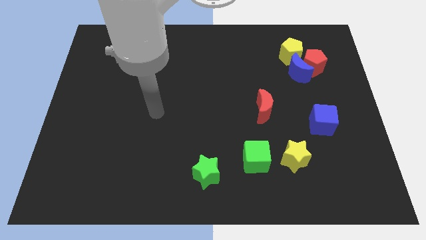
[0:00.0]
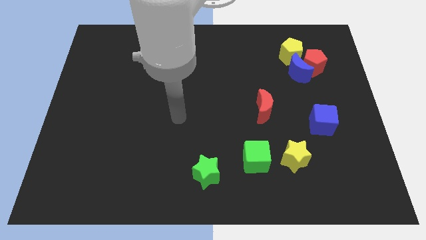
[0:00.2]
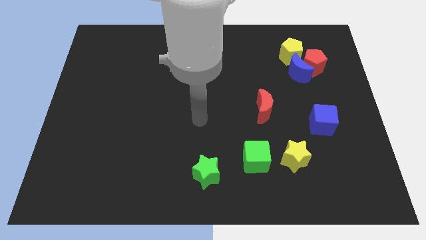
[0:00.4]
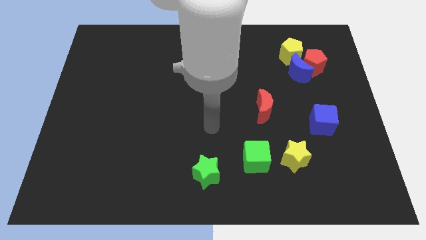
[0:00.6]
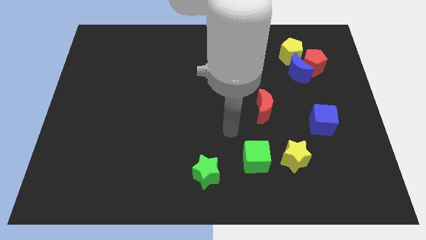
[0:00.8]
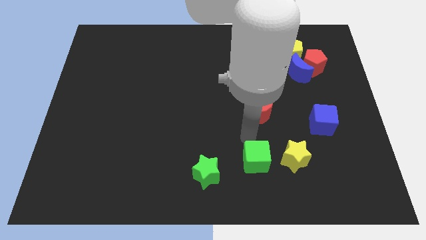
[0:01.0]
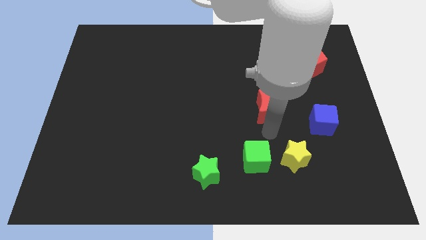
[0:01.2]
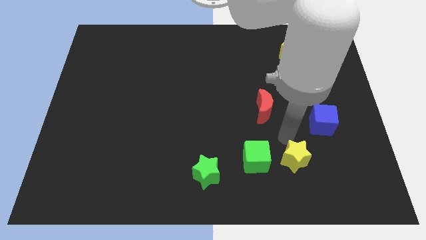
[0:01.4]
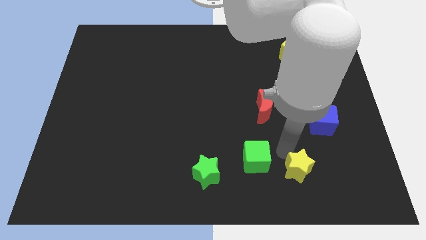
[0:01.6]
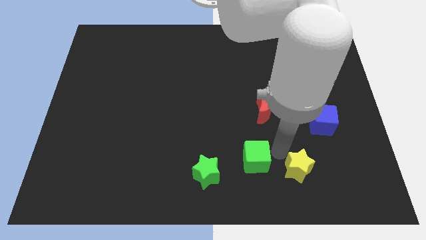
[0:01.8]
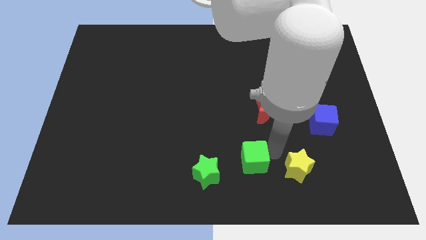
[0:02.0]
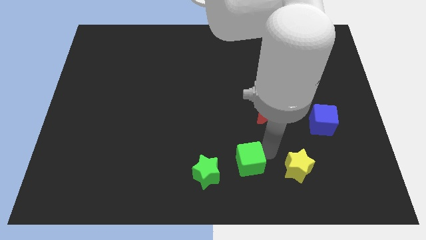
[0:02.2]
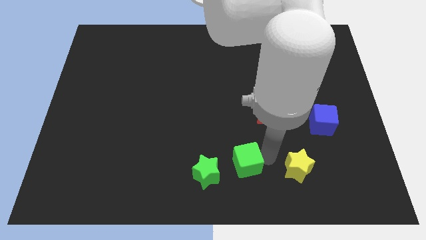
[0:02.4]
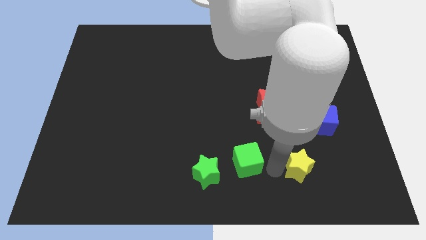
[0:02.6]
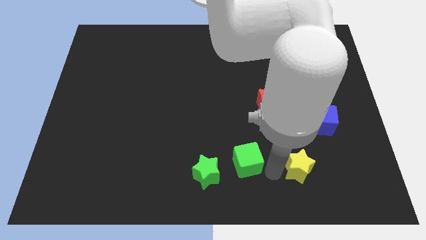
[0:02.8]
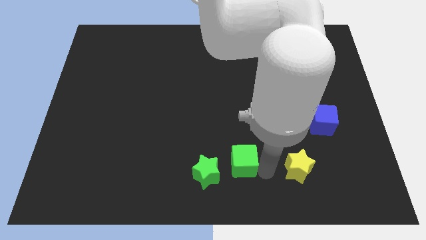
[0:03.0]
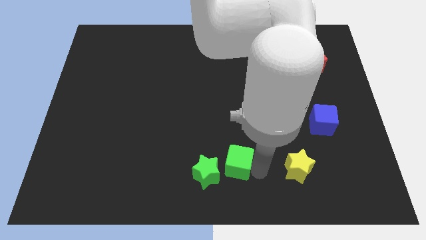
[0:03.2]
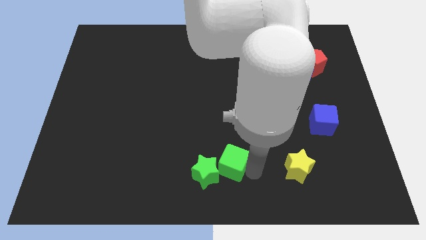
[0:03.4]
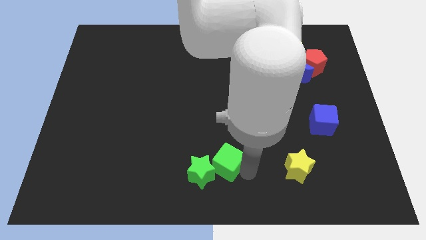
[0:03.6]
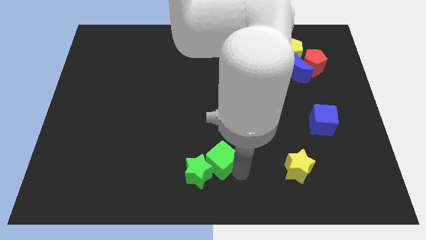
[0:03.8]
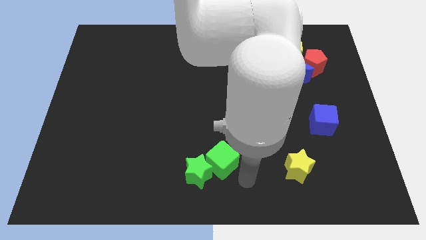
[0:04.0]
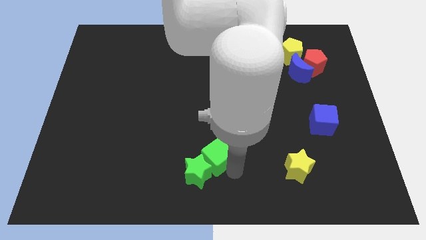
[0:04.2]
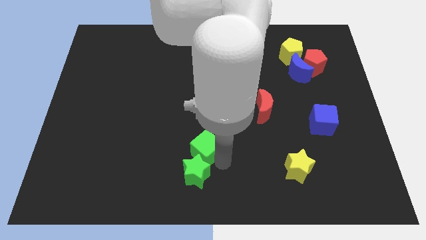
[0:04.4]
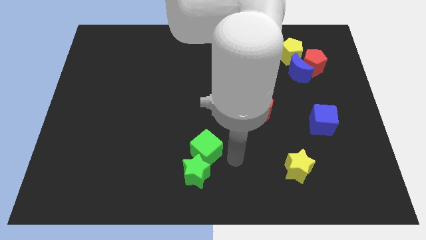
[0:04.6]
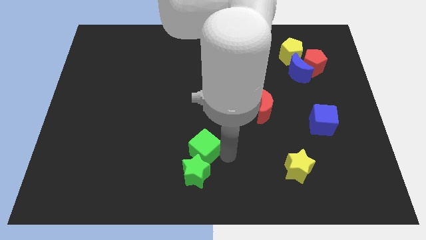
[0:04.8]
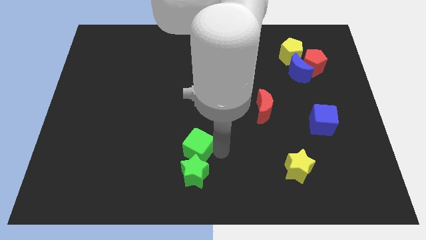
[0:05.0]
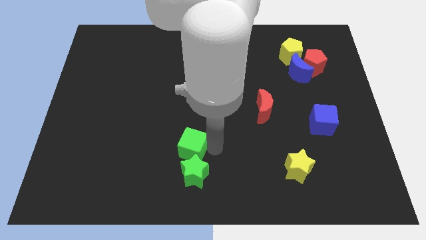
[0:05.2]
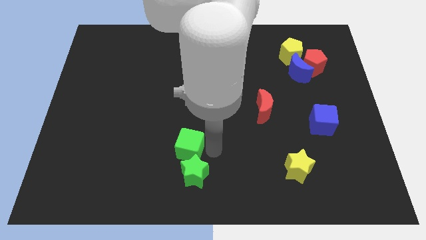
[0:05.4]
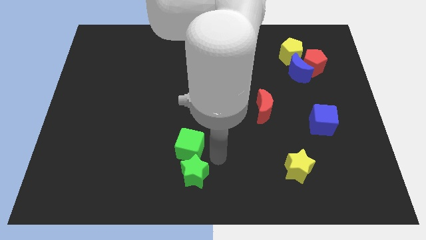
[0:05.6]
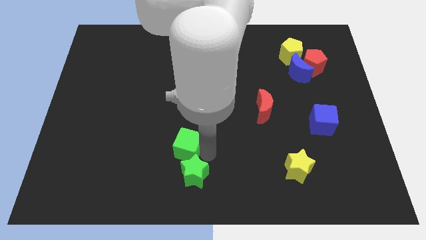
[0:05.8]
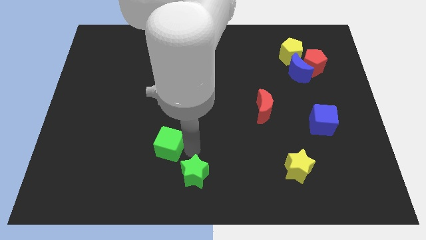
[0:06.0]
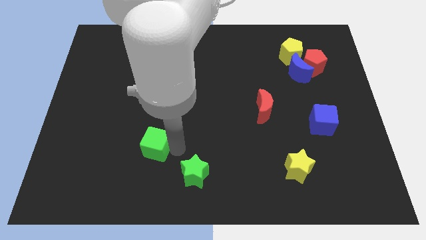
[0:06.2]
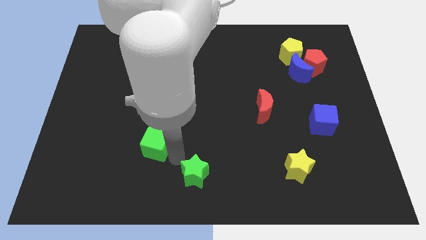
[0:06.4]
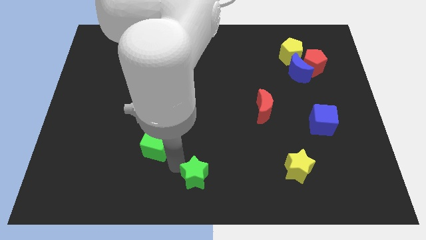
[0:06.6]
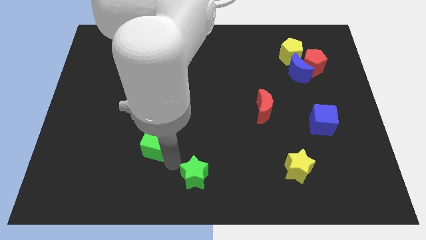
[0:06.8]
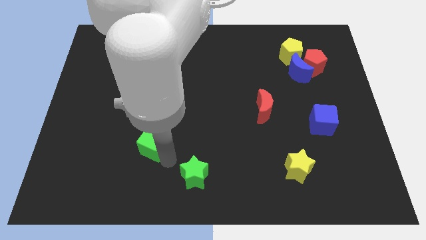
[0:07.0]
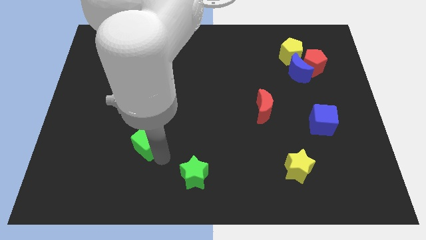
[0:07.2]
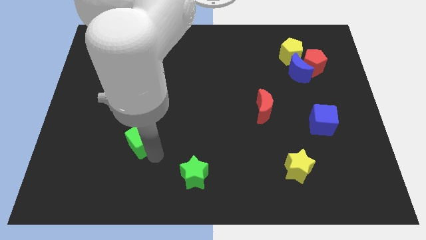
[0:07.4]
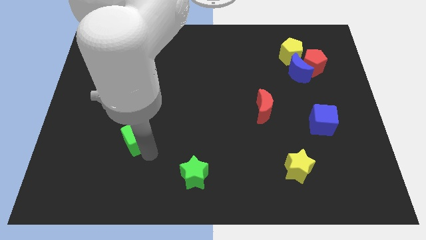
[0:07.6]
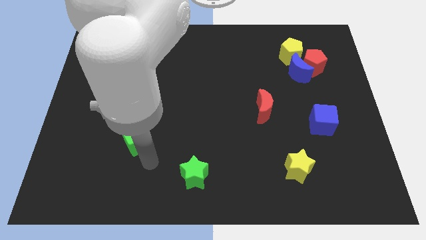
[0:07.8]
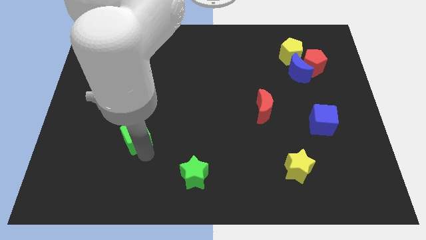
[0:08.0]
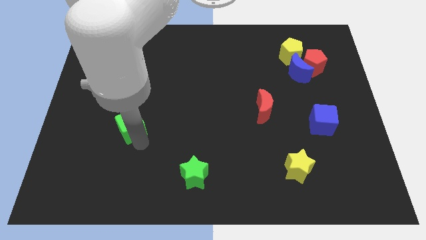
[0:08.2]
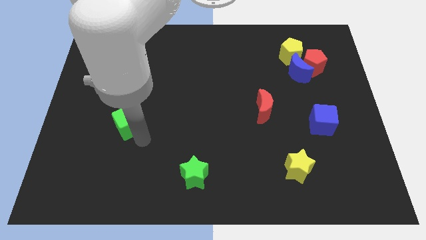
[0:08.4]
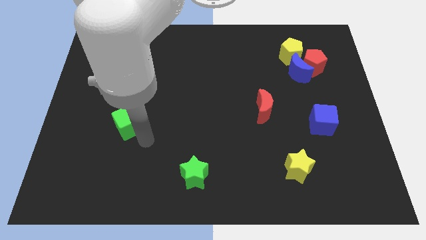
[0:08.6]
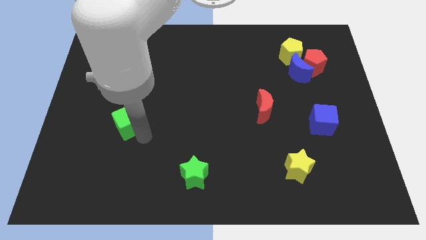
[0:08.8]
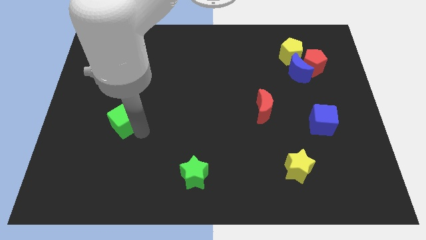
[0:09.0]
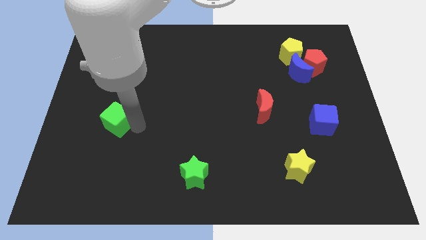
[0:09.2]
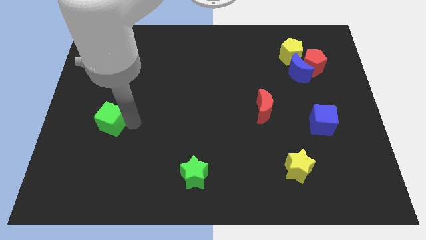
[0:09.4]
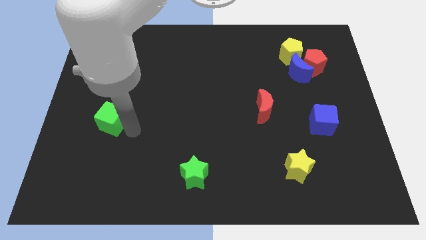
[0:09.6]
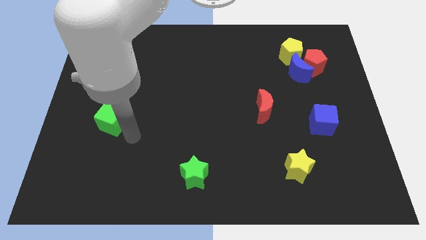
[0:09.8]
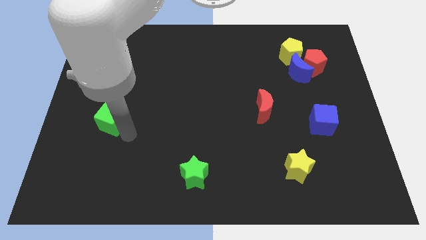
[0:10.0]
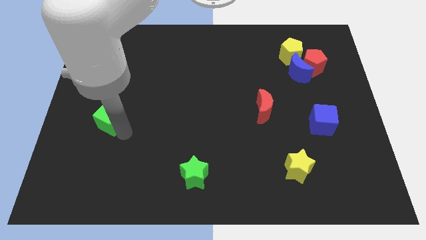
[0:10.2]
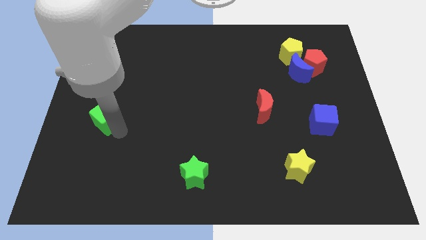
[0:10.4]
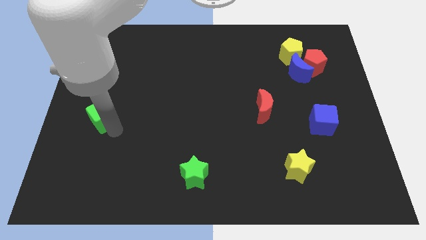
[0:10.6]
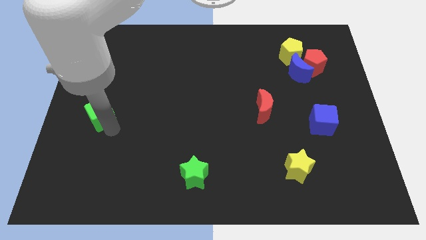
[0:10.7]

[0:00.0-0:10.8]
slide the green cube to the center left

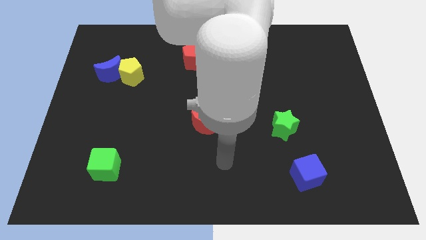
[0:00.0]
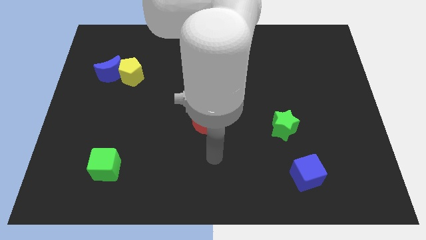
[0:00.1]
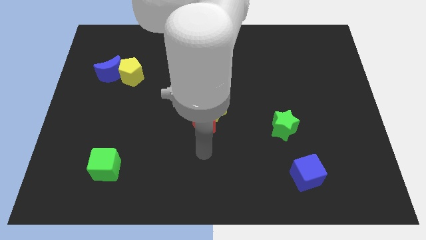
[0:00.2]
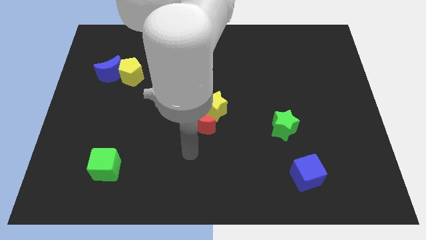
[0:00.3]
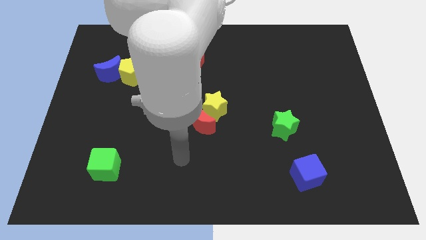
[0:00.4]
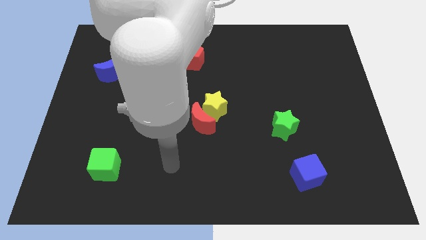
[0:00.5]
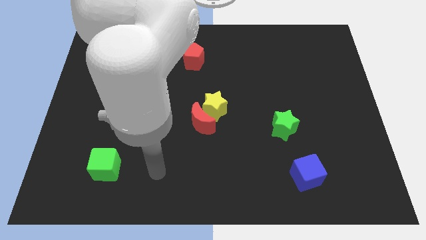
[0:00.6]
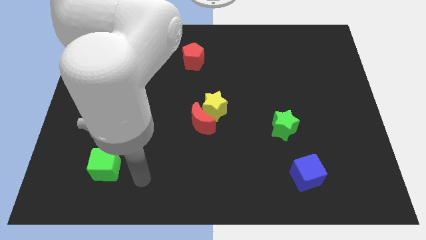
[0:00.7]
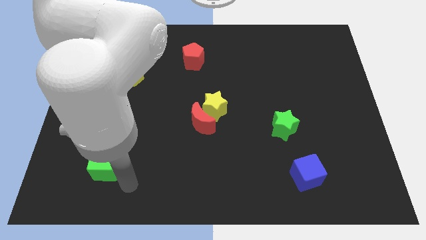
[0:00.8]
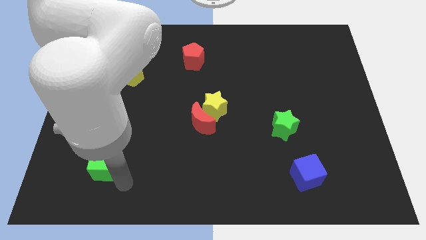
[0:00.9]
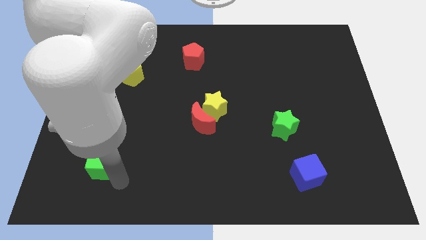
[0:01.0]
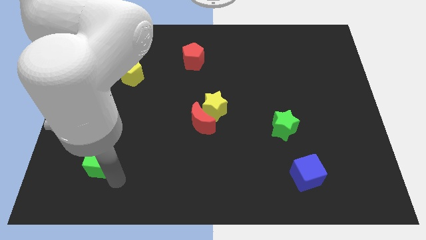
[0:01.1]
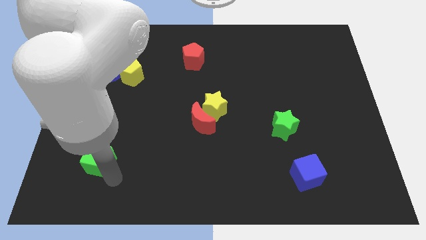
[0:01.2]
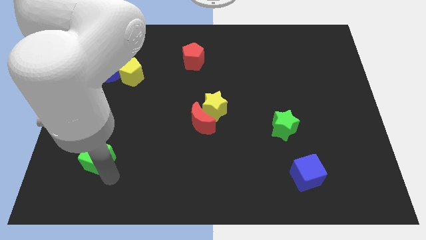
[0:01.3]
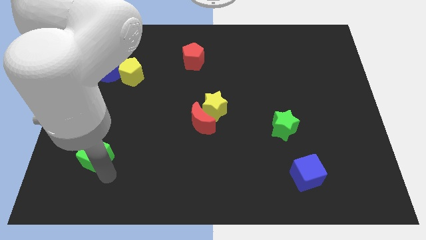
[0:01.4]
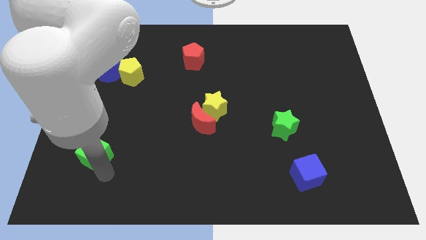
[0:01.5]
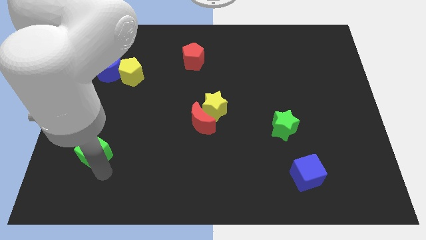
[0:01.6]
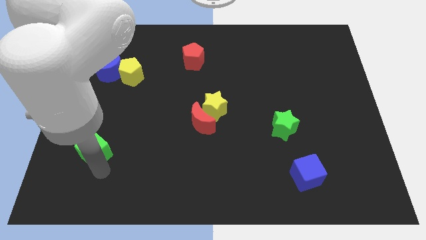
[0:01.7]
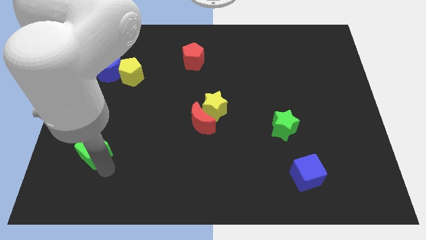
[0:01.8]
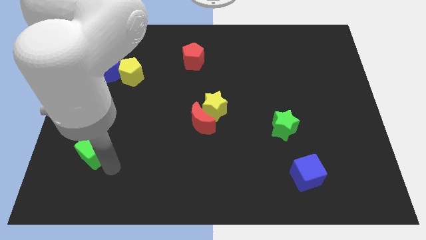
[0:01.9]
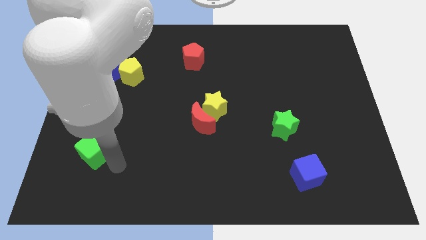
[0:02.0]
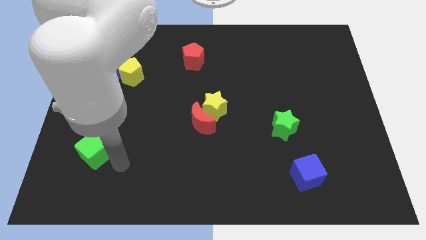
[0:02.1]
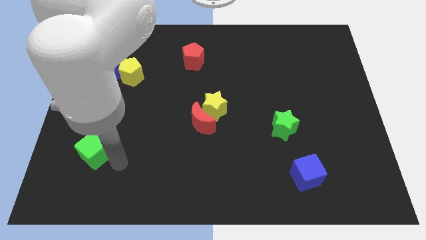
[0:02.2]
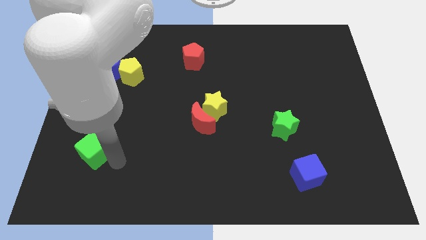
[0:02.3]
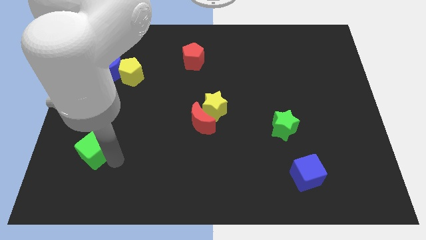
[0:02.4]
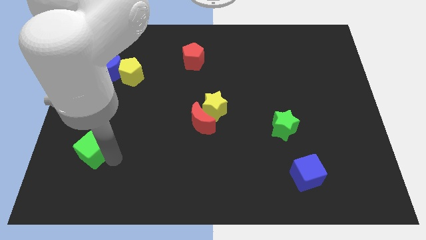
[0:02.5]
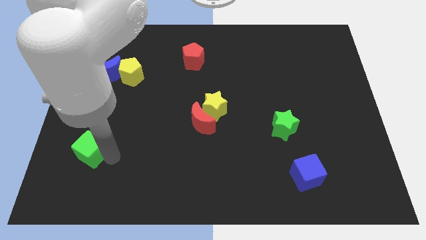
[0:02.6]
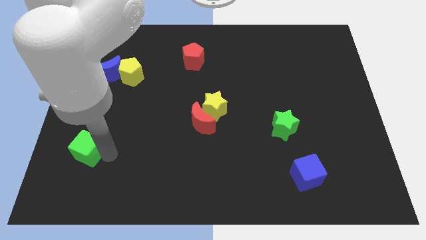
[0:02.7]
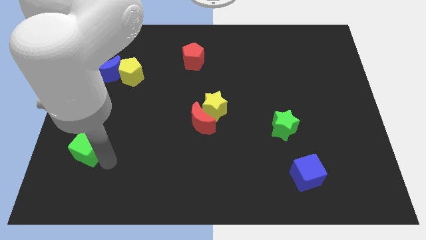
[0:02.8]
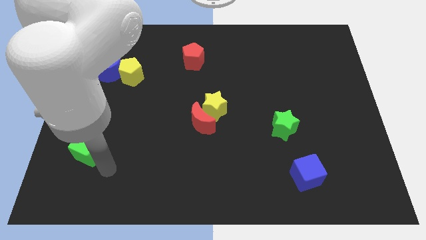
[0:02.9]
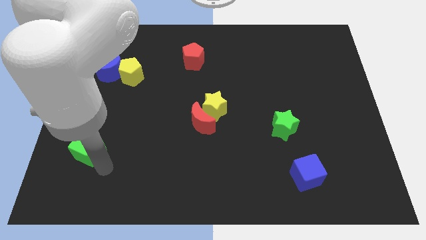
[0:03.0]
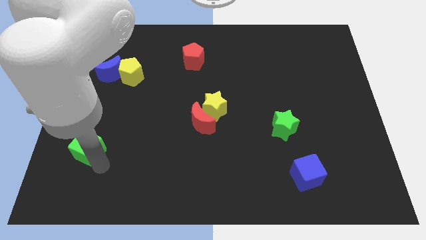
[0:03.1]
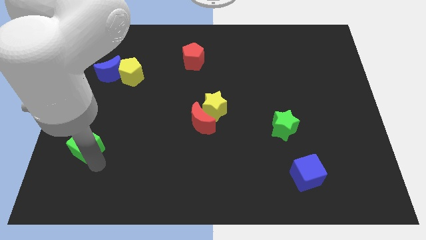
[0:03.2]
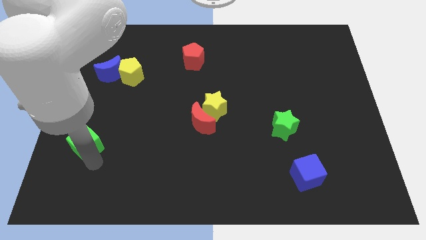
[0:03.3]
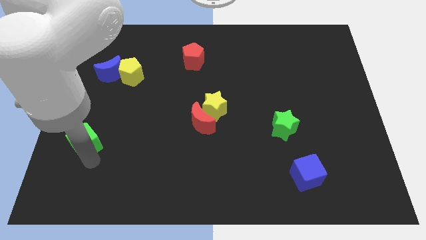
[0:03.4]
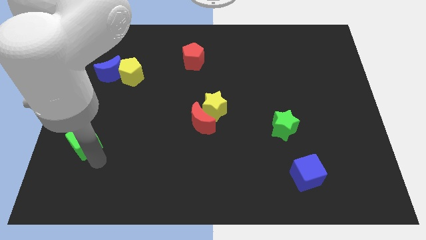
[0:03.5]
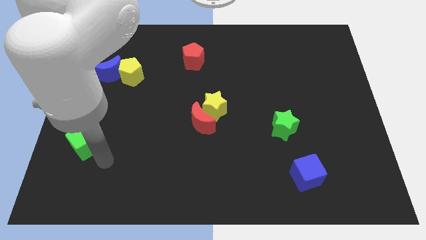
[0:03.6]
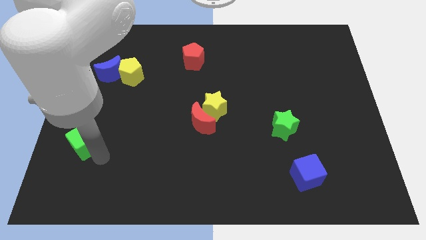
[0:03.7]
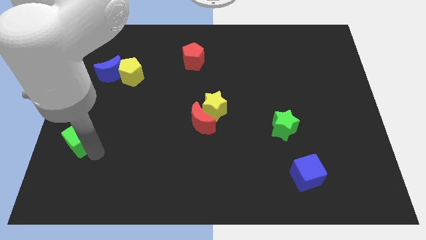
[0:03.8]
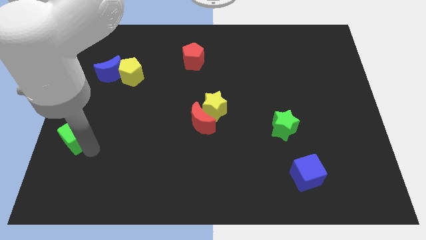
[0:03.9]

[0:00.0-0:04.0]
put the green cube to the left side
